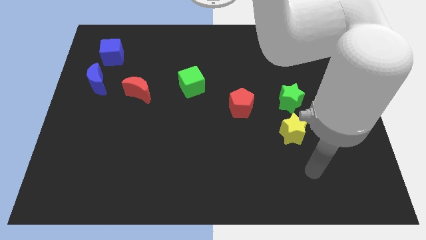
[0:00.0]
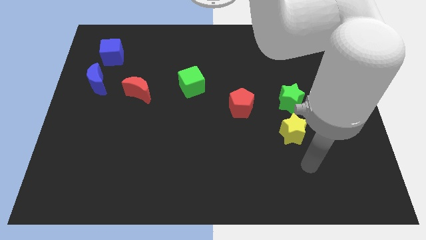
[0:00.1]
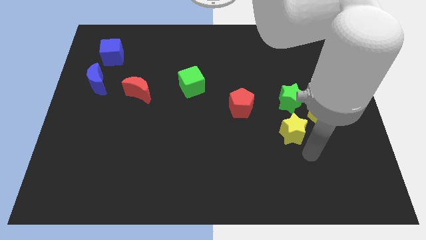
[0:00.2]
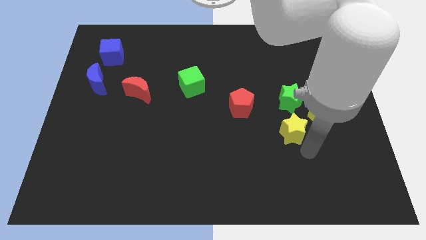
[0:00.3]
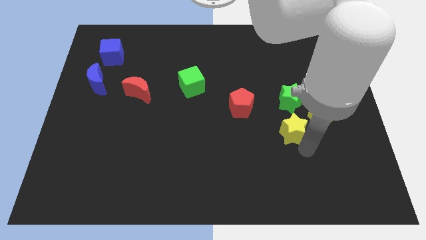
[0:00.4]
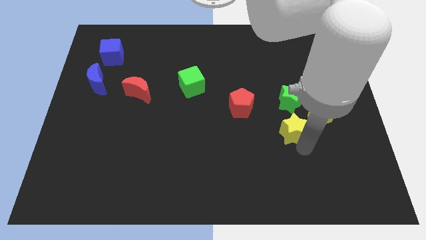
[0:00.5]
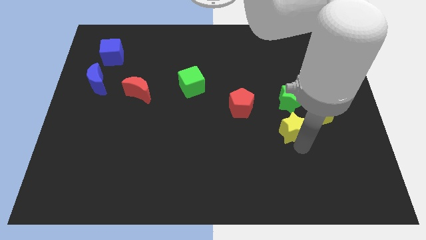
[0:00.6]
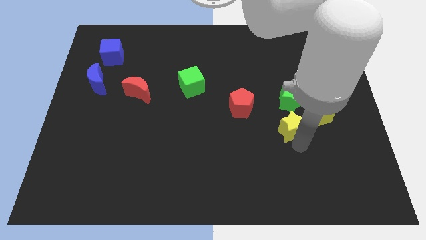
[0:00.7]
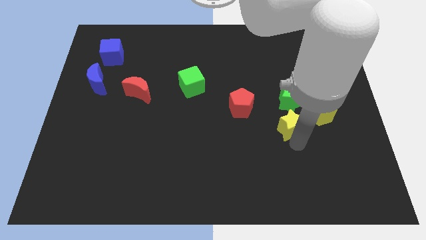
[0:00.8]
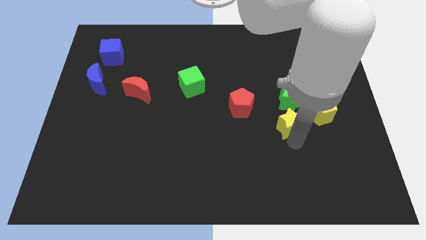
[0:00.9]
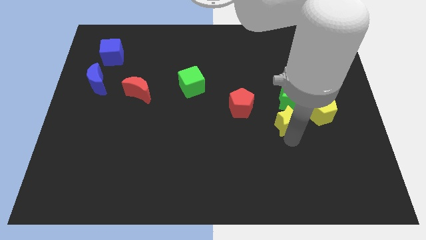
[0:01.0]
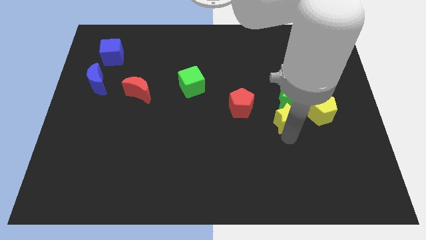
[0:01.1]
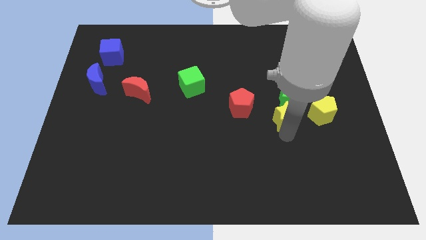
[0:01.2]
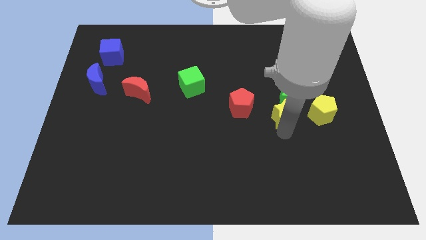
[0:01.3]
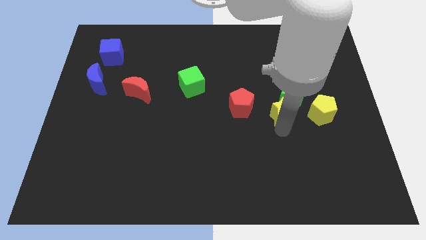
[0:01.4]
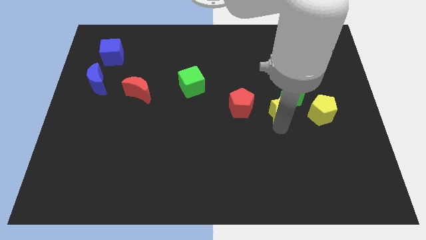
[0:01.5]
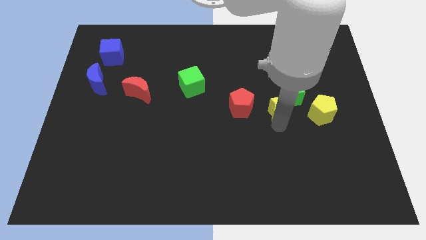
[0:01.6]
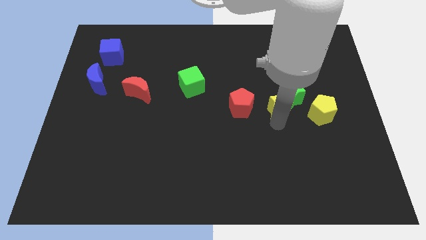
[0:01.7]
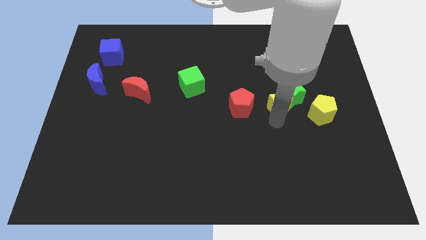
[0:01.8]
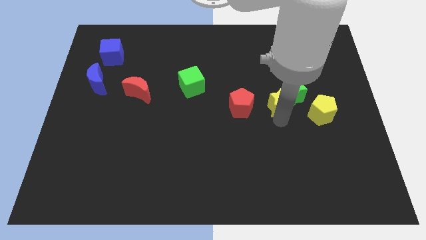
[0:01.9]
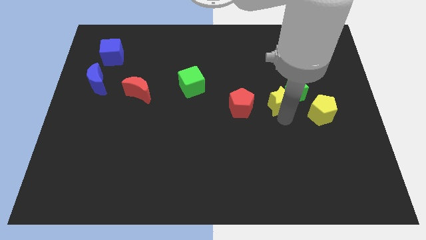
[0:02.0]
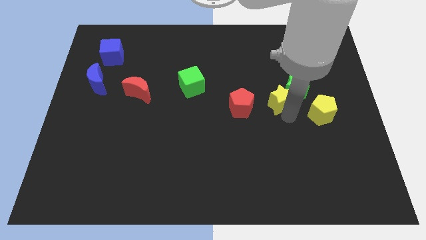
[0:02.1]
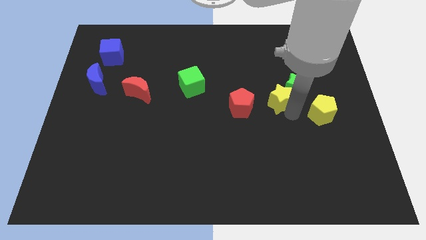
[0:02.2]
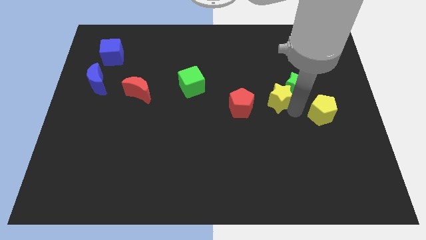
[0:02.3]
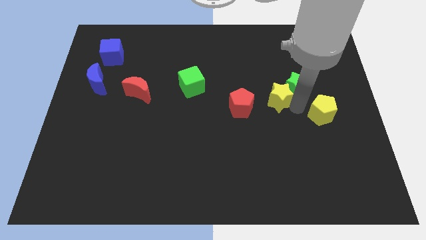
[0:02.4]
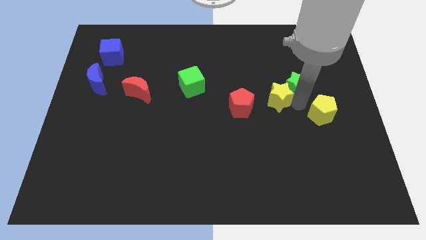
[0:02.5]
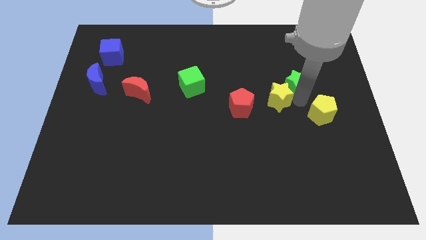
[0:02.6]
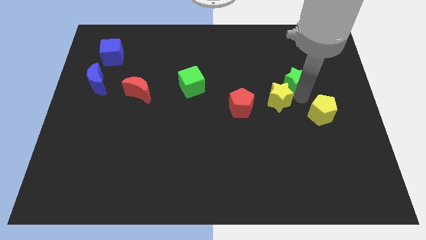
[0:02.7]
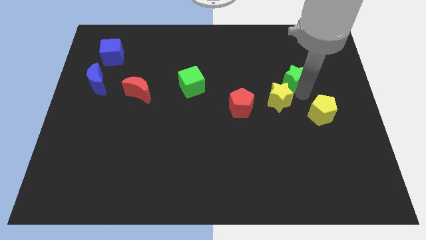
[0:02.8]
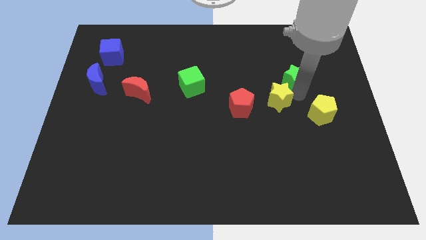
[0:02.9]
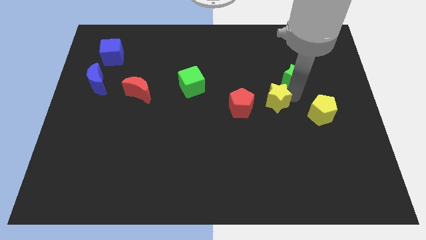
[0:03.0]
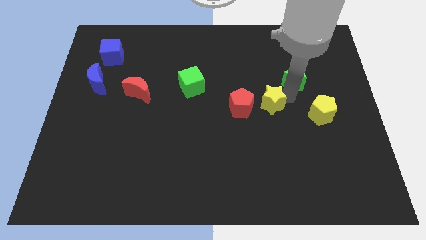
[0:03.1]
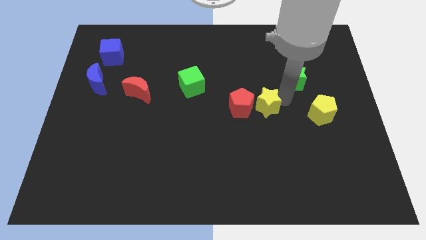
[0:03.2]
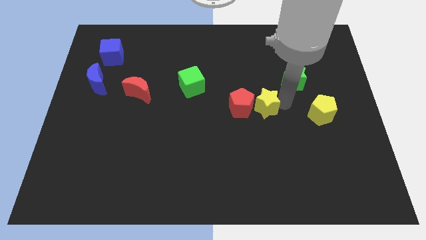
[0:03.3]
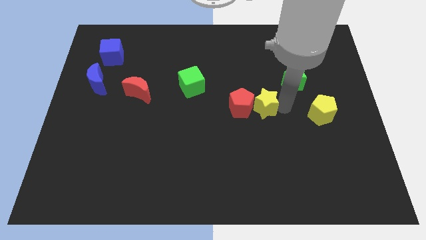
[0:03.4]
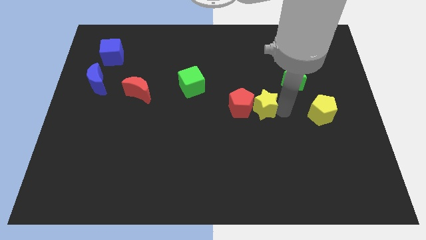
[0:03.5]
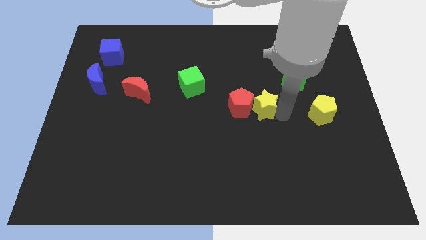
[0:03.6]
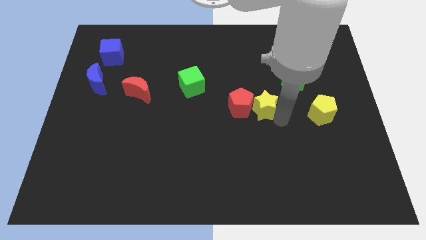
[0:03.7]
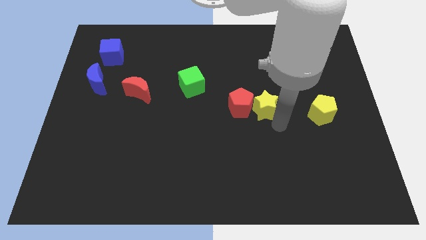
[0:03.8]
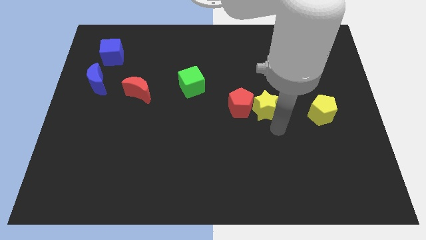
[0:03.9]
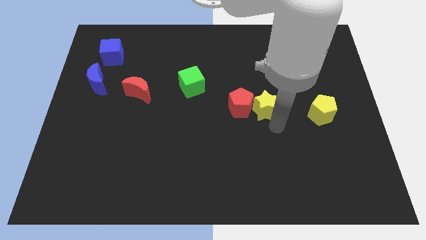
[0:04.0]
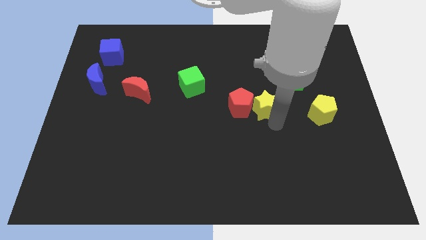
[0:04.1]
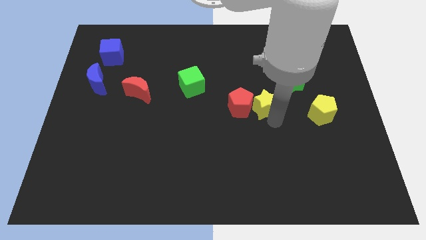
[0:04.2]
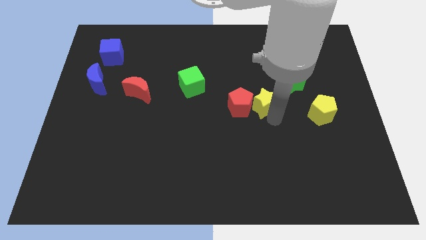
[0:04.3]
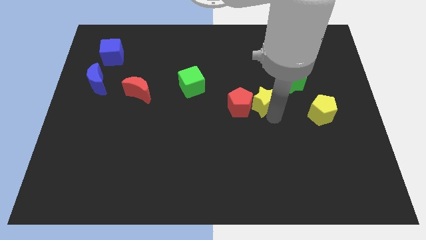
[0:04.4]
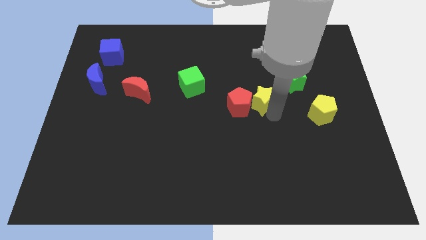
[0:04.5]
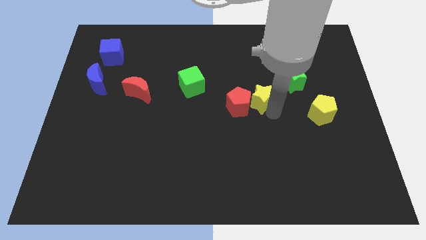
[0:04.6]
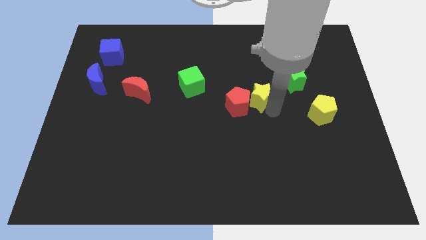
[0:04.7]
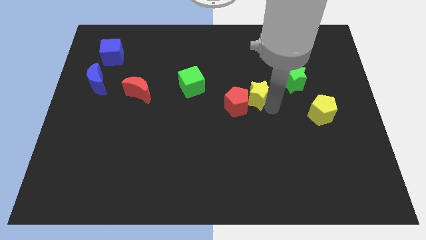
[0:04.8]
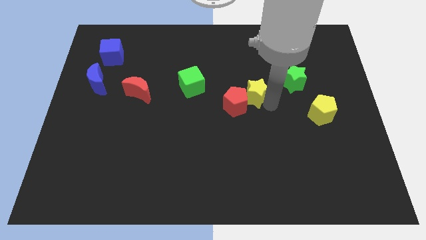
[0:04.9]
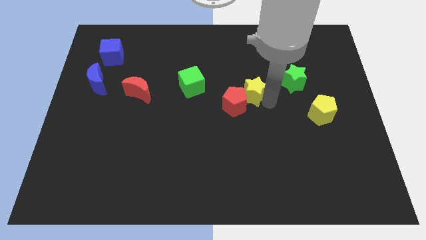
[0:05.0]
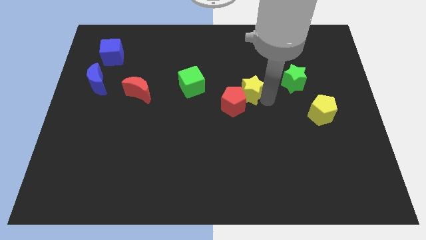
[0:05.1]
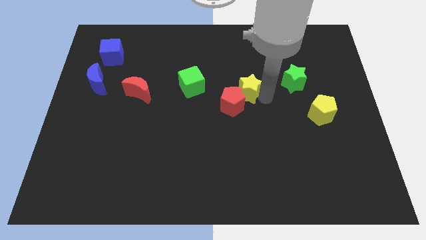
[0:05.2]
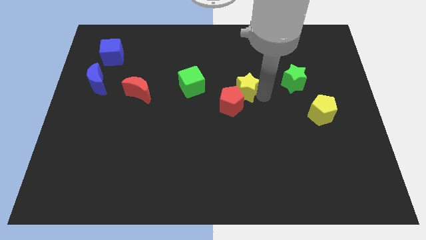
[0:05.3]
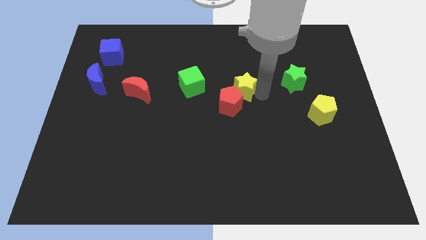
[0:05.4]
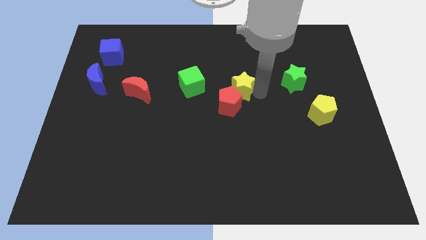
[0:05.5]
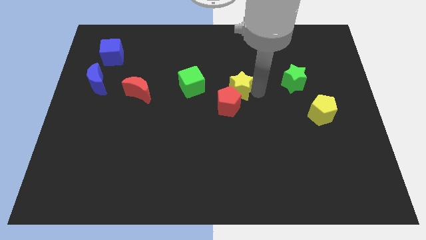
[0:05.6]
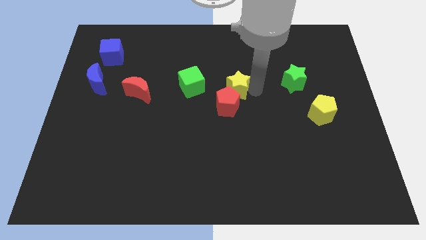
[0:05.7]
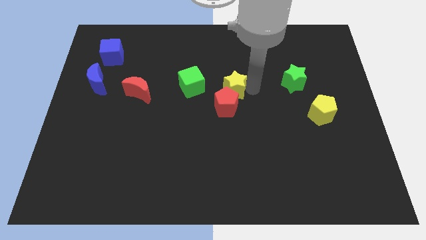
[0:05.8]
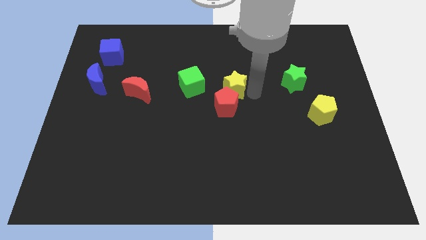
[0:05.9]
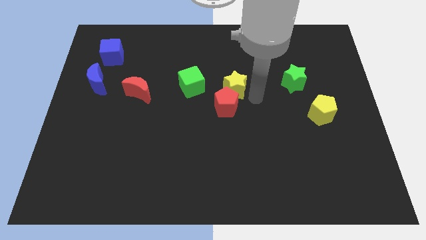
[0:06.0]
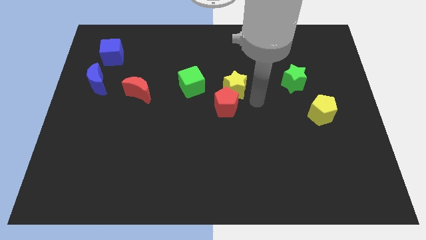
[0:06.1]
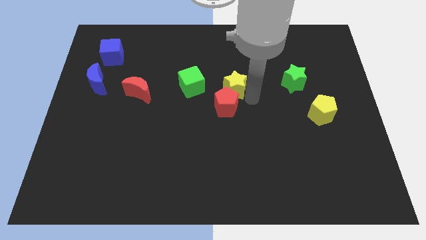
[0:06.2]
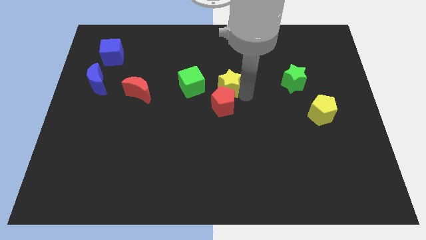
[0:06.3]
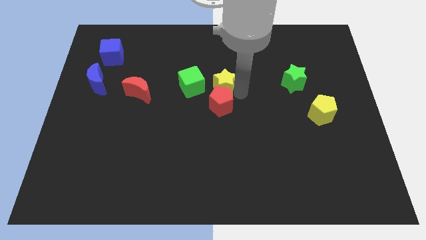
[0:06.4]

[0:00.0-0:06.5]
push the yellow star diagonally up and to the left

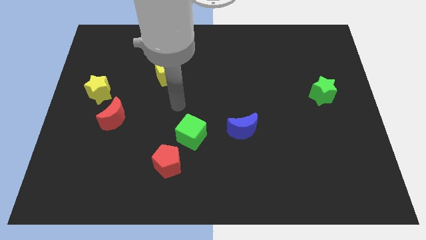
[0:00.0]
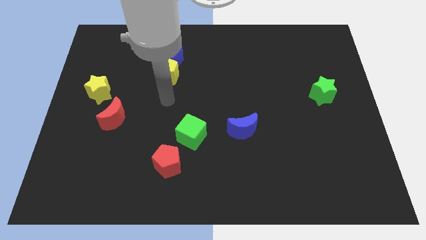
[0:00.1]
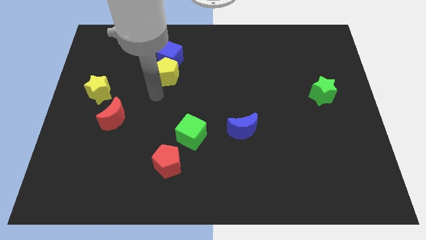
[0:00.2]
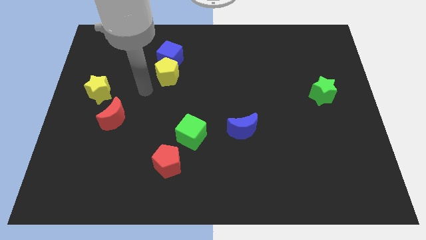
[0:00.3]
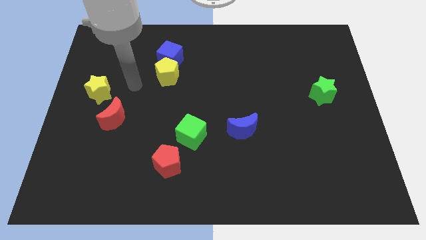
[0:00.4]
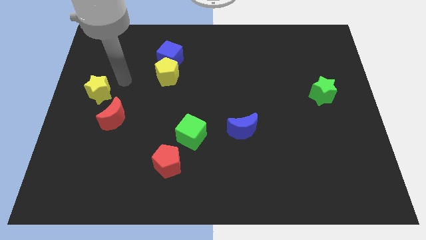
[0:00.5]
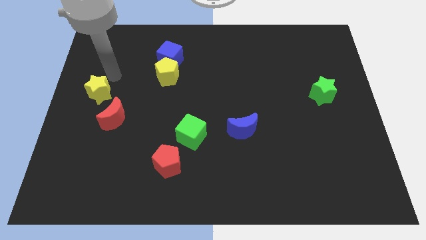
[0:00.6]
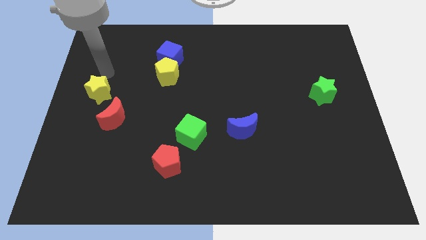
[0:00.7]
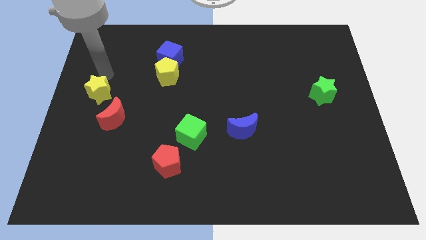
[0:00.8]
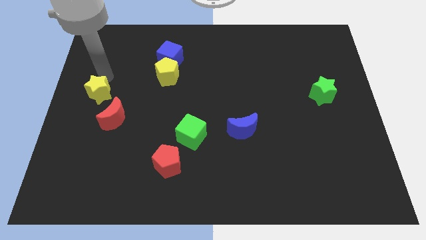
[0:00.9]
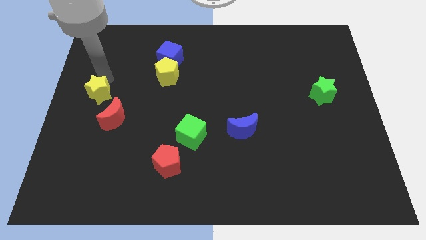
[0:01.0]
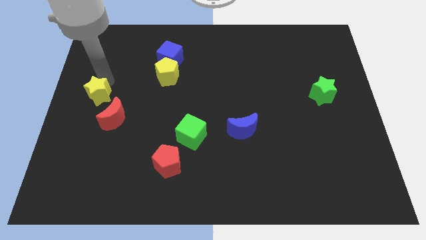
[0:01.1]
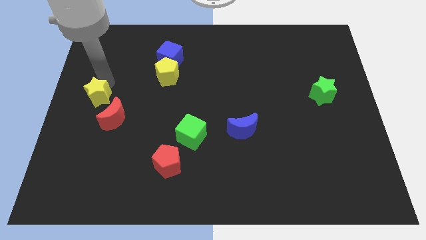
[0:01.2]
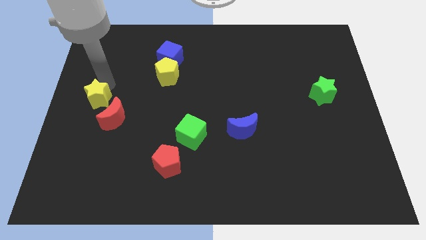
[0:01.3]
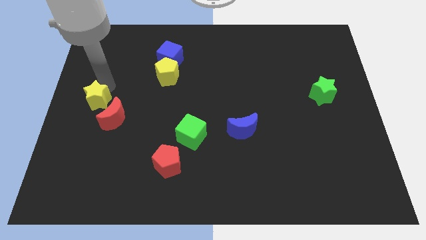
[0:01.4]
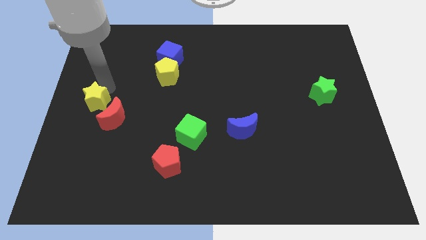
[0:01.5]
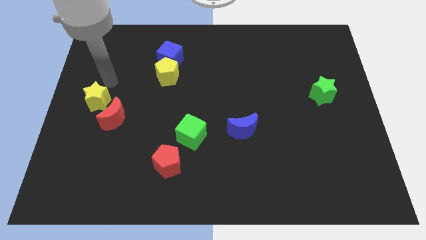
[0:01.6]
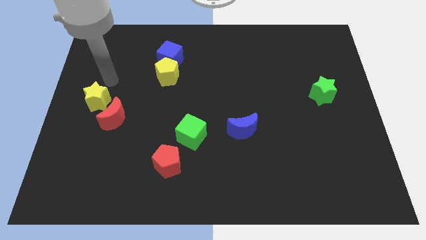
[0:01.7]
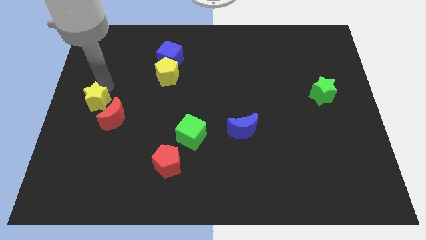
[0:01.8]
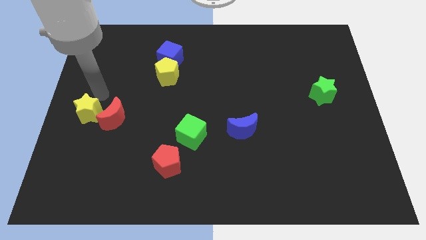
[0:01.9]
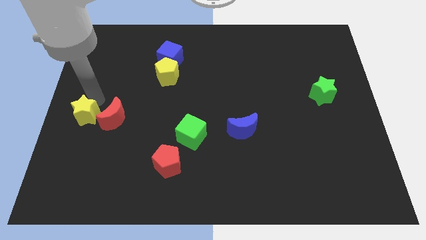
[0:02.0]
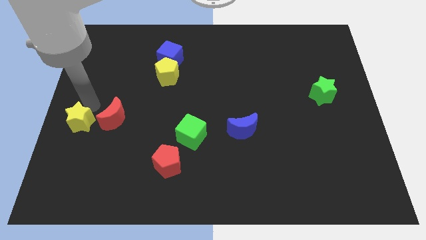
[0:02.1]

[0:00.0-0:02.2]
slightly slide the yellow star down
